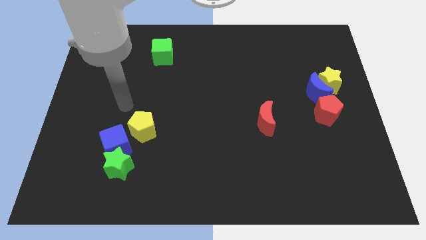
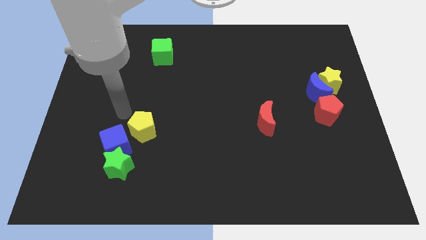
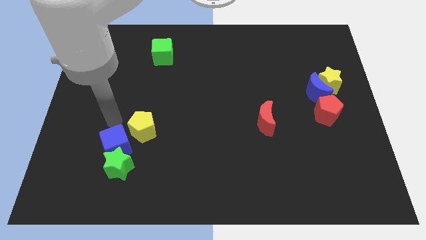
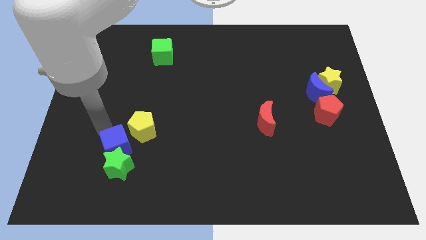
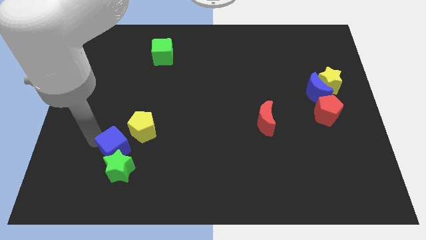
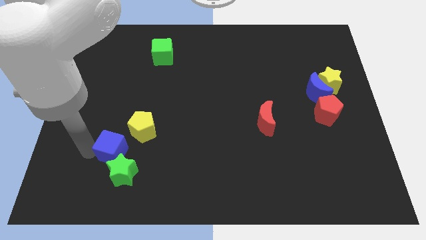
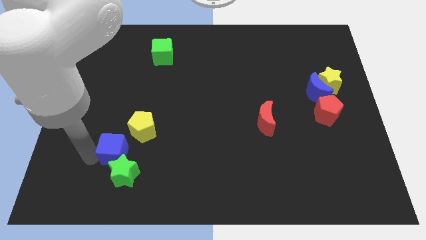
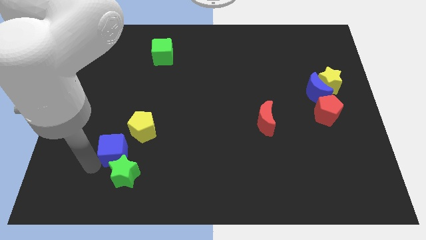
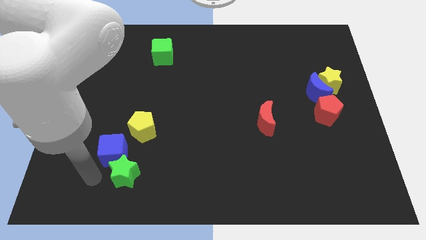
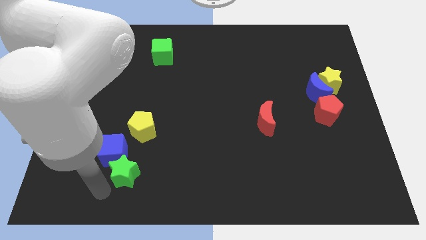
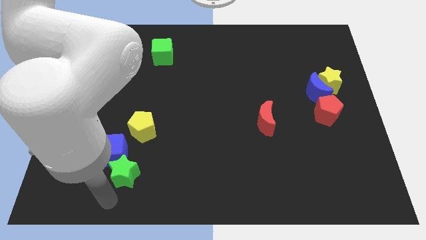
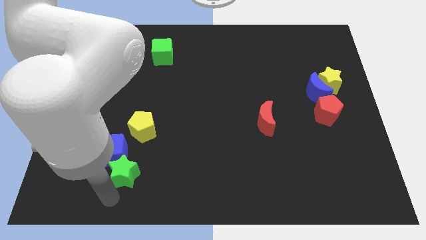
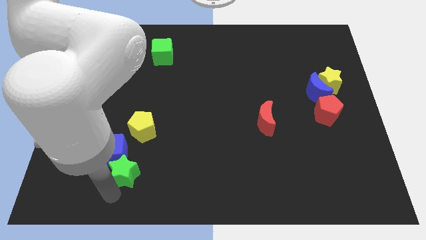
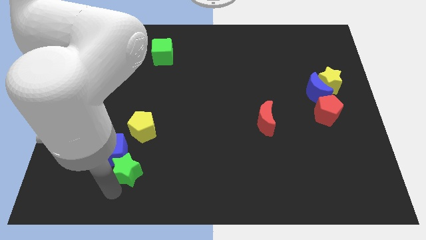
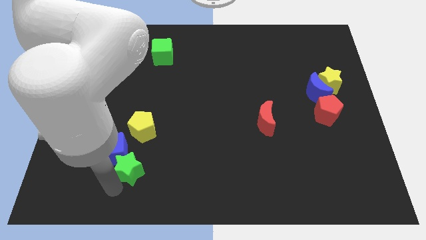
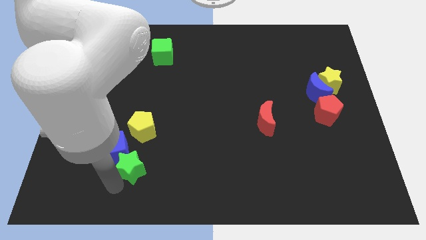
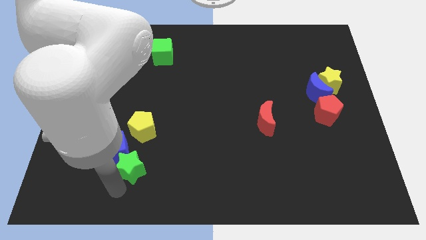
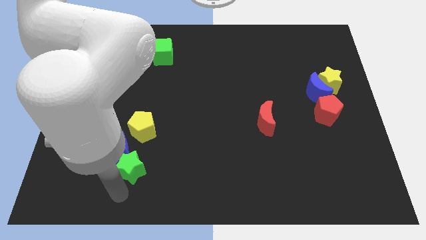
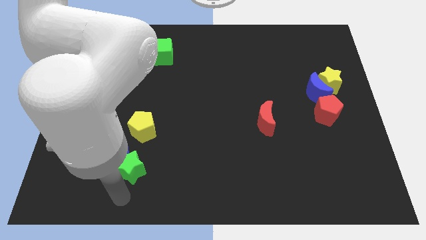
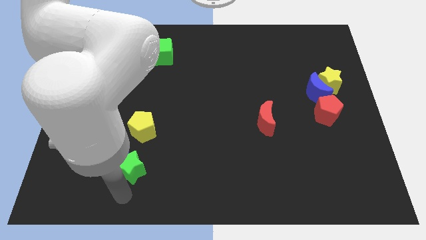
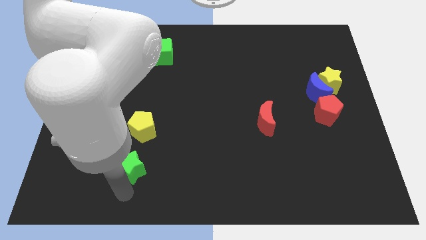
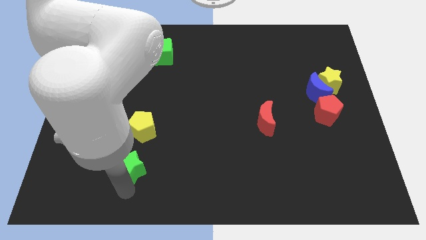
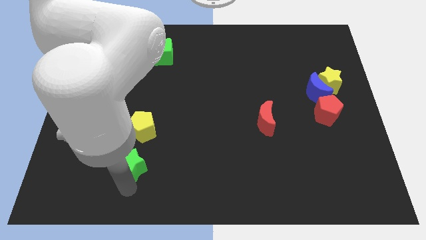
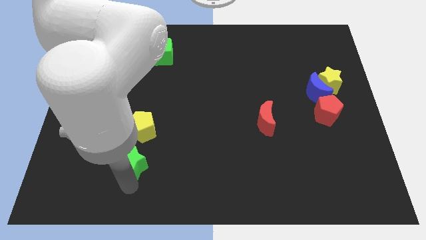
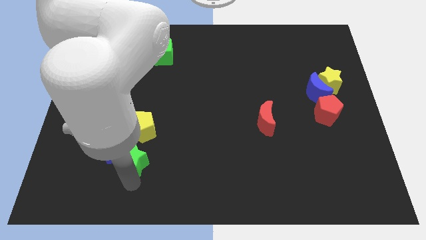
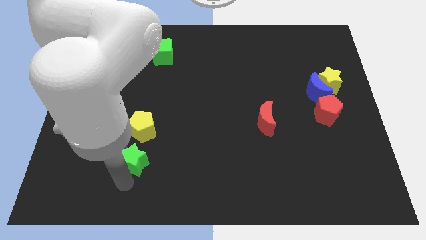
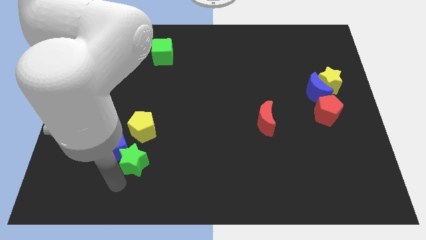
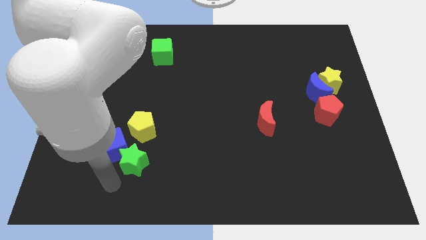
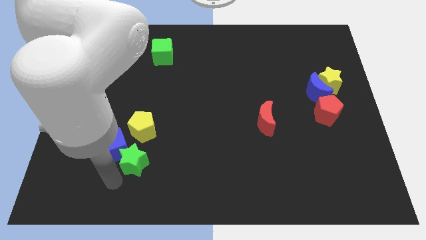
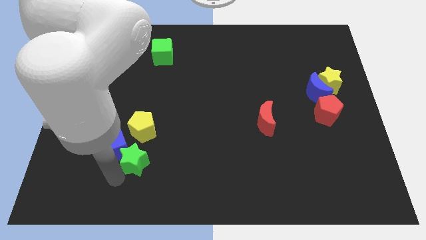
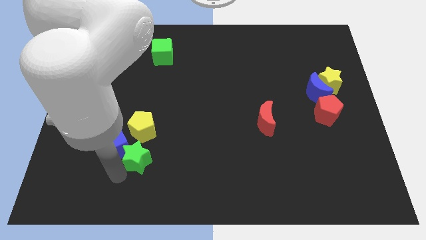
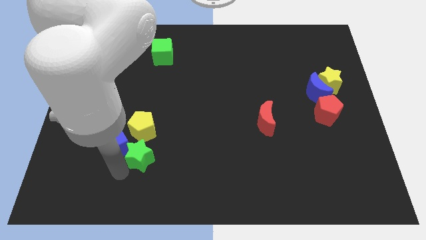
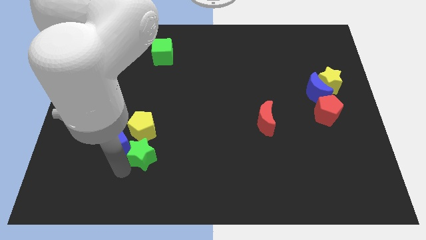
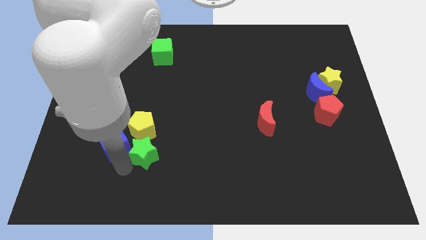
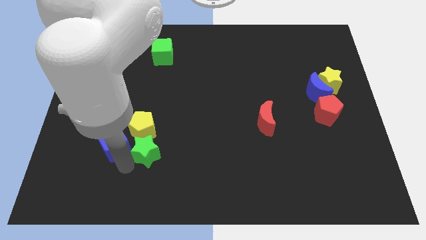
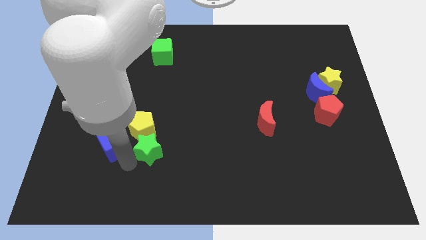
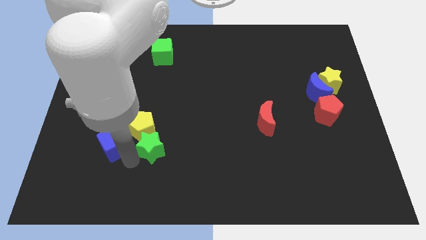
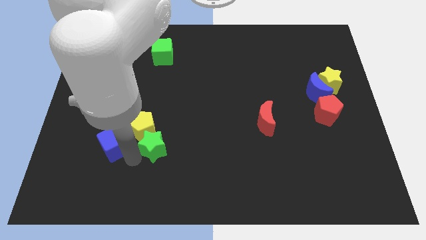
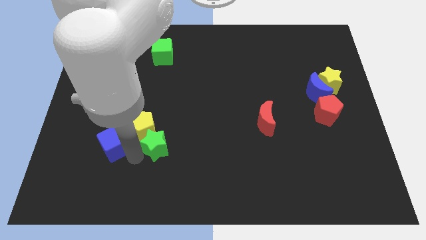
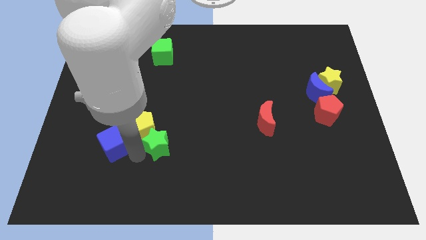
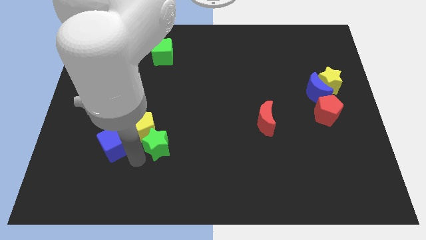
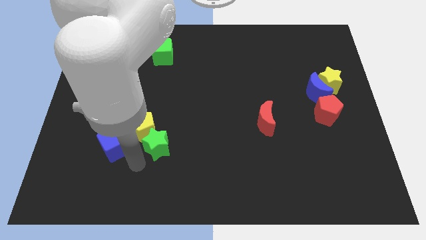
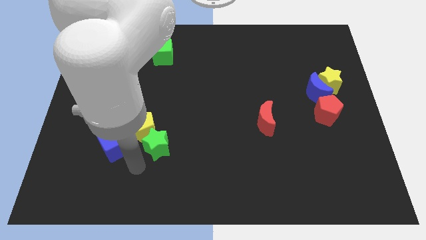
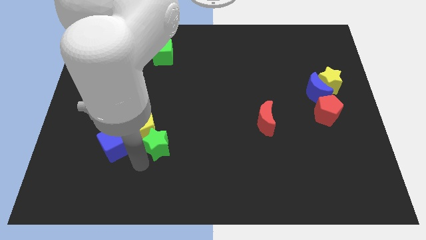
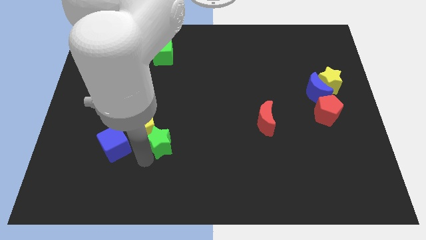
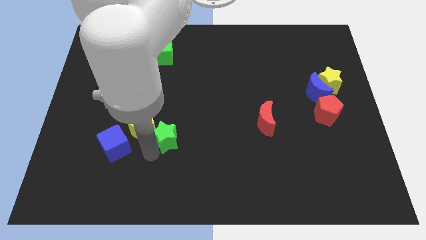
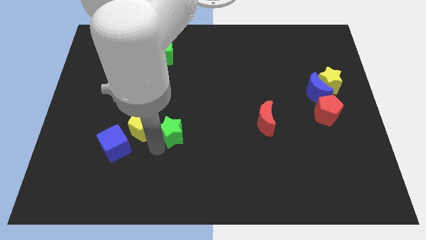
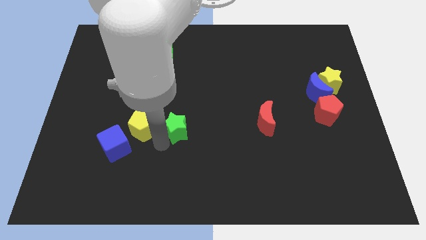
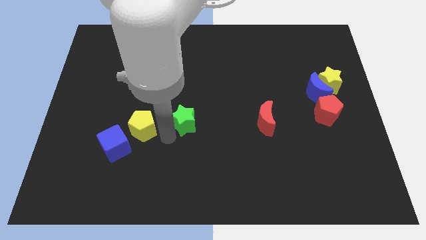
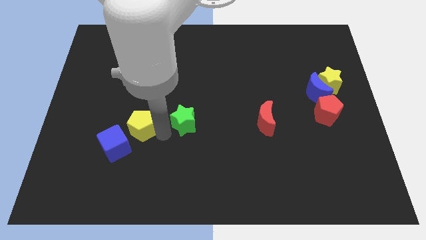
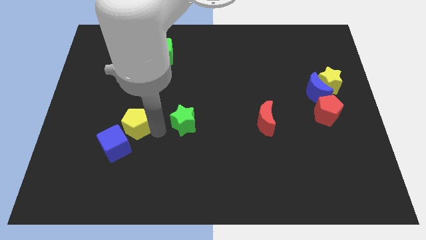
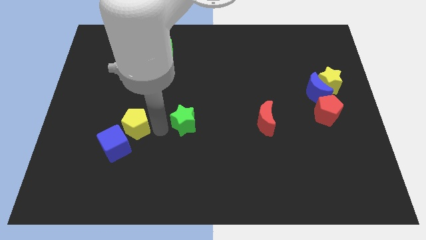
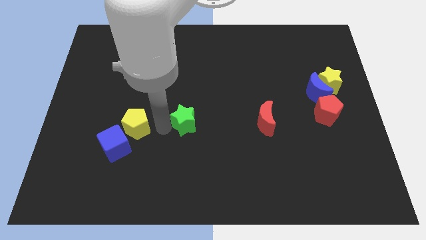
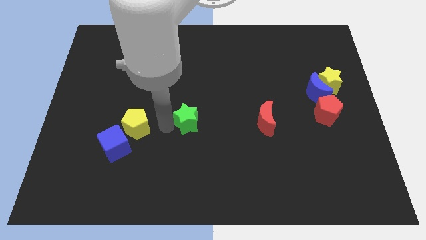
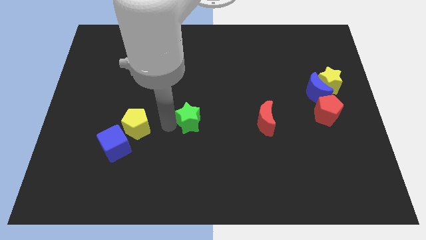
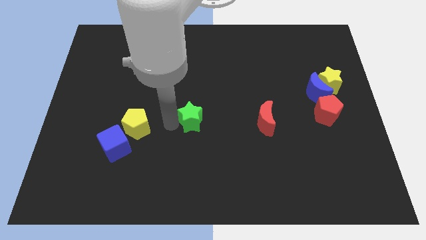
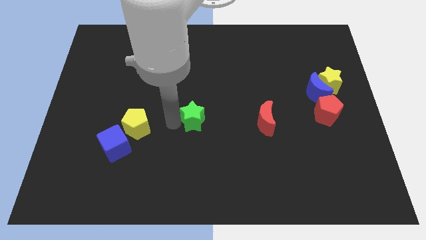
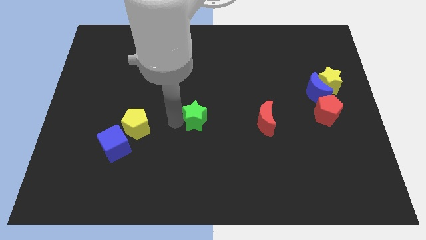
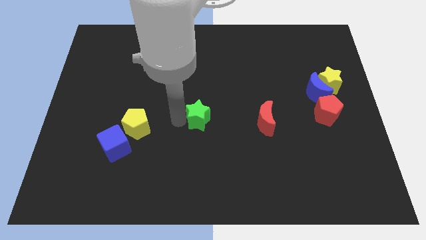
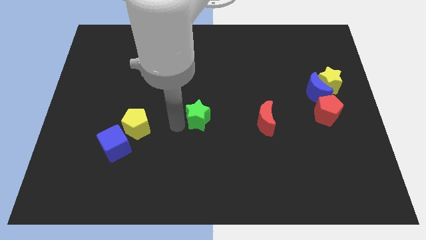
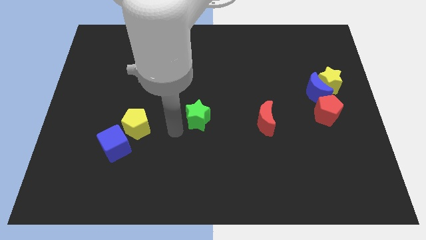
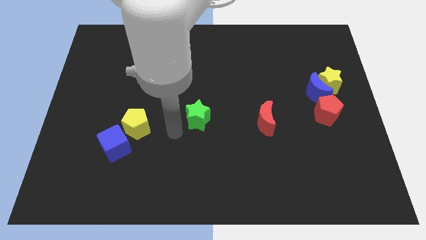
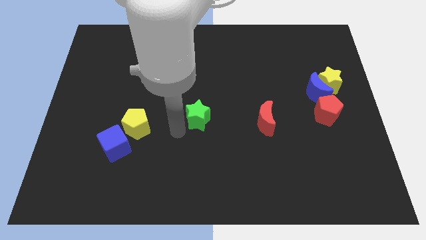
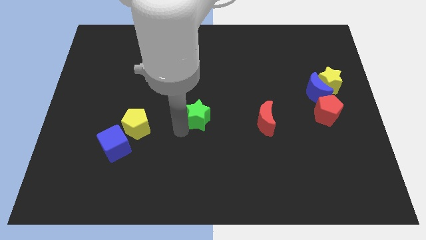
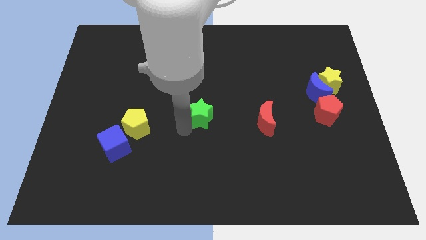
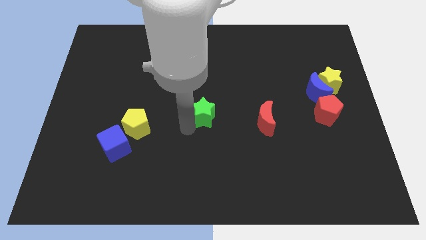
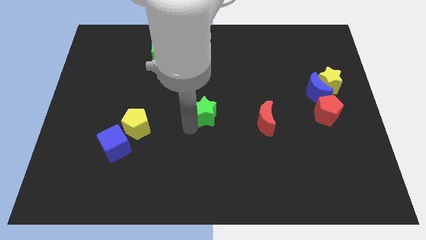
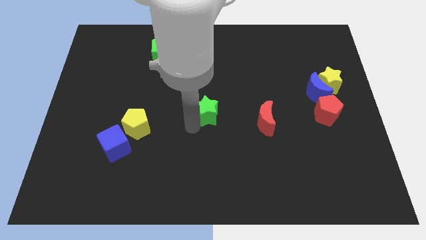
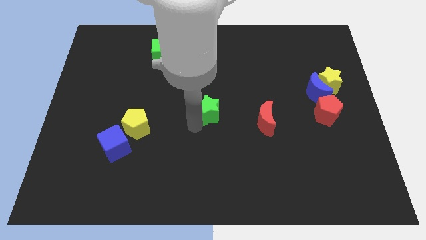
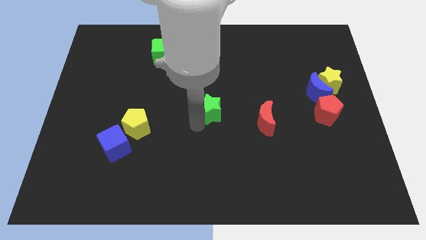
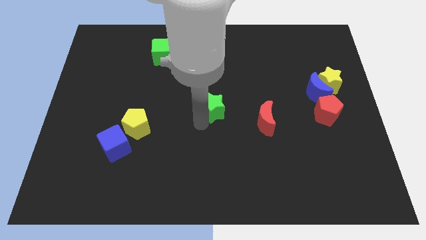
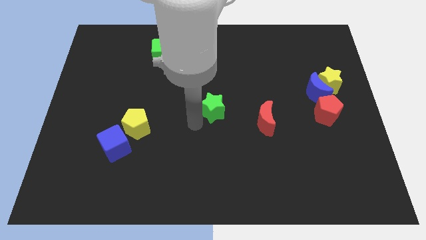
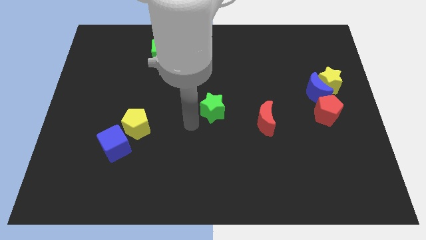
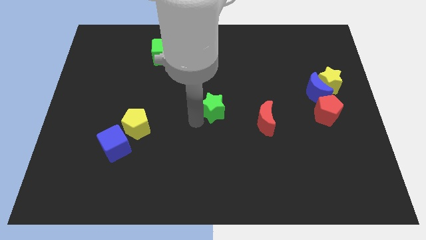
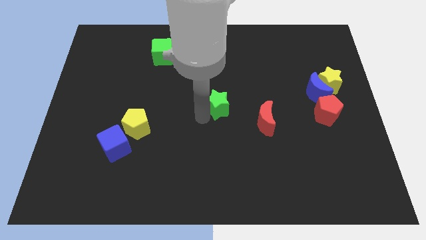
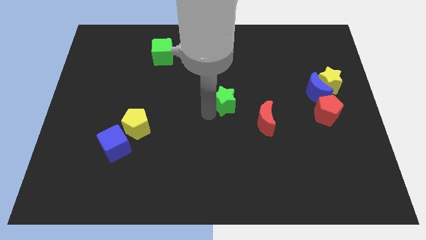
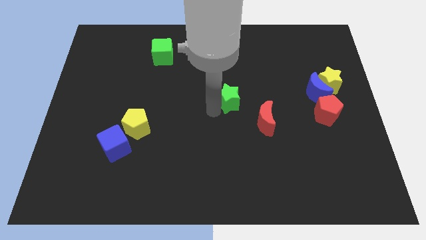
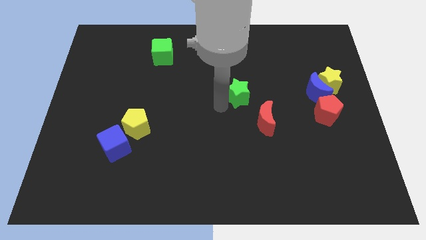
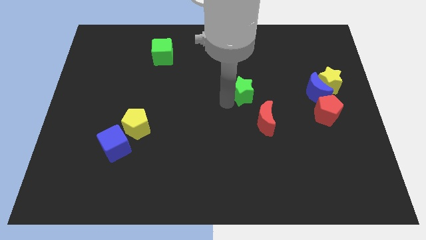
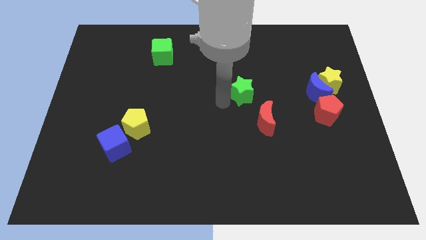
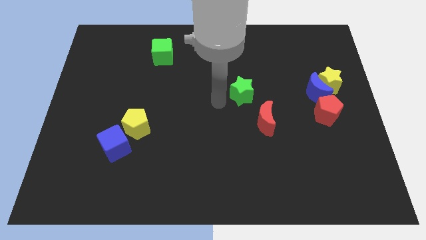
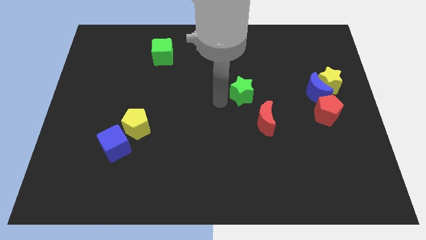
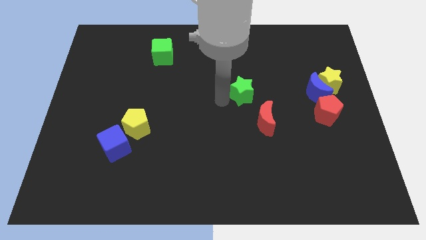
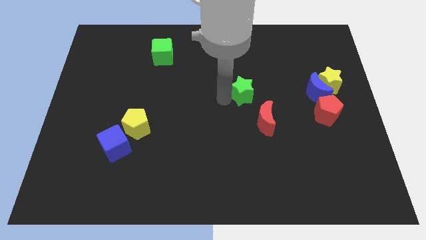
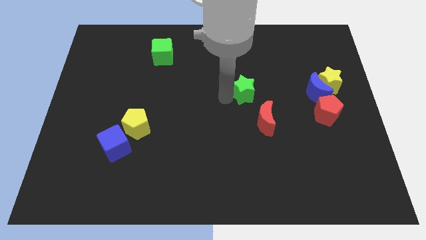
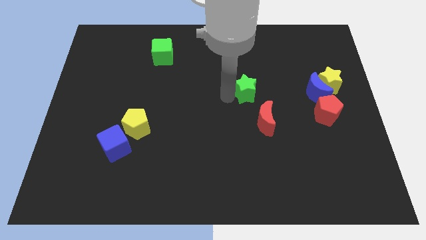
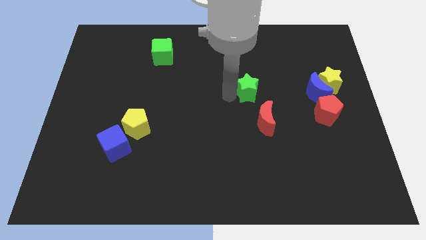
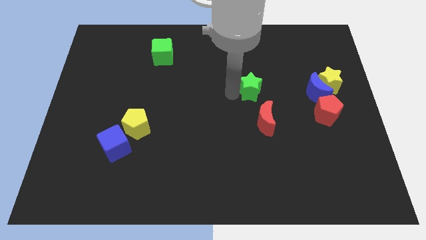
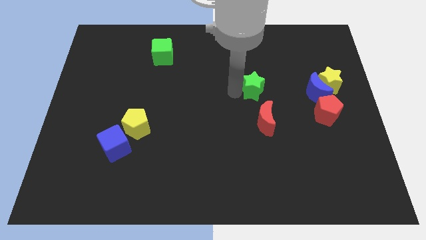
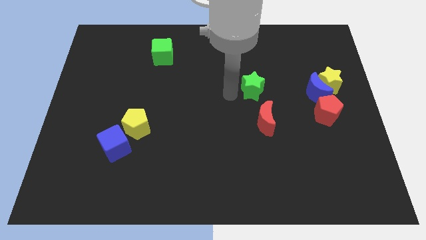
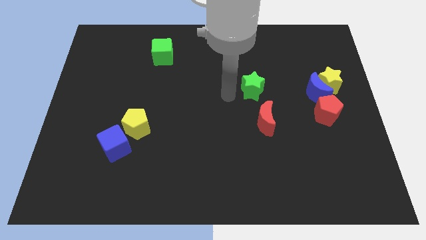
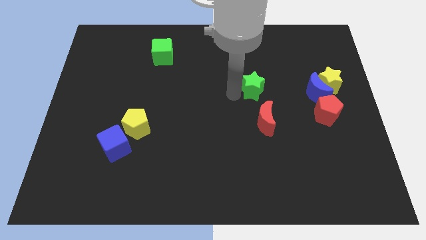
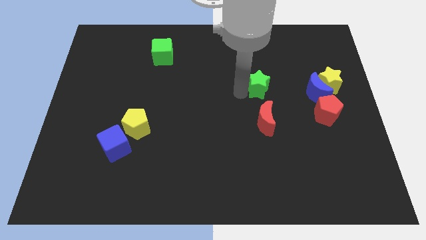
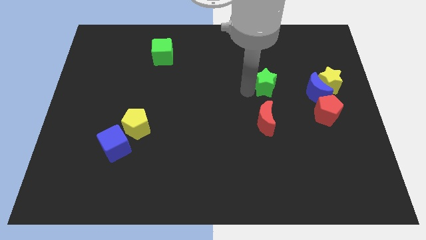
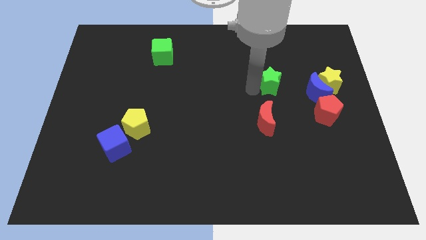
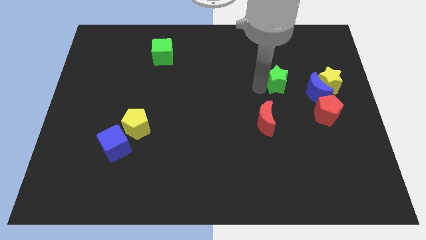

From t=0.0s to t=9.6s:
slide the green star diagonally up and to the left of the blue moon
